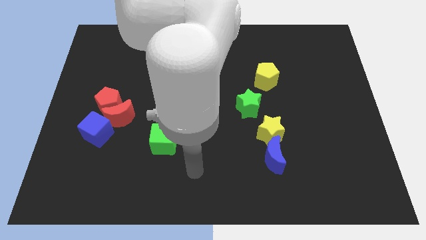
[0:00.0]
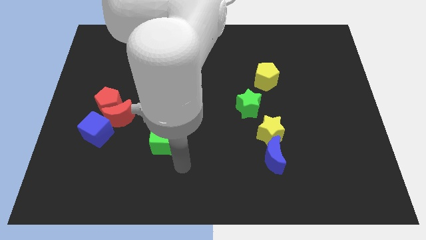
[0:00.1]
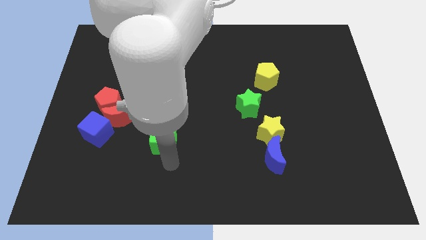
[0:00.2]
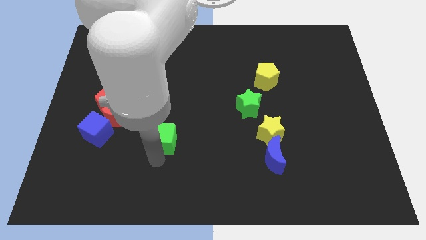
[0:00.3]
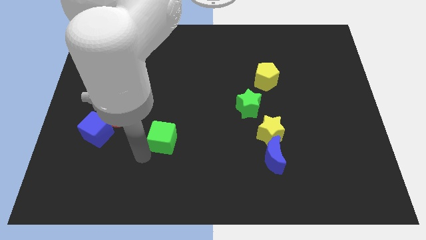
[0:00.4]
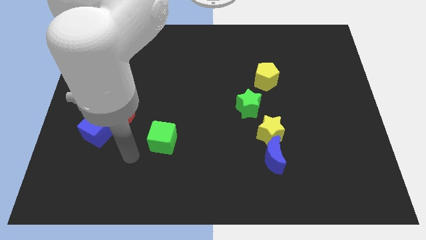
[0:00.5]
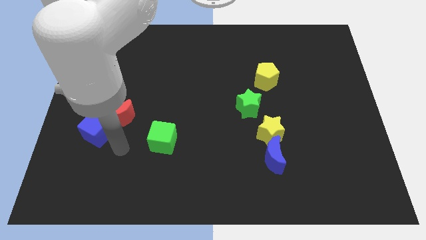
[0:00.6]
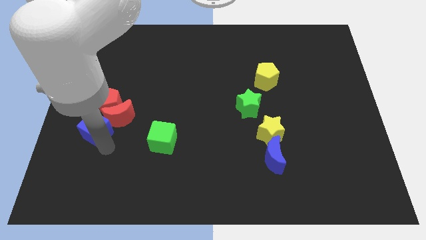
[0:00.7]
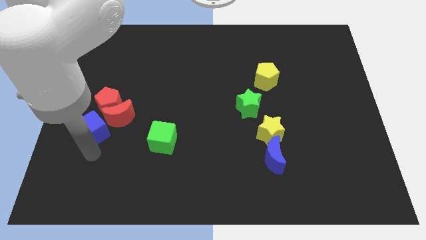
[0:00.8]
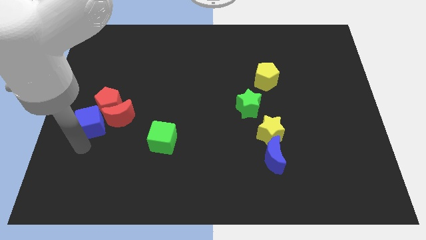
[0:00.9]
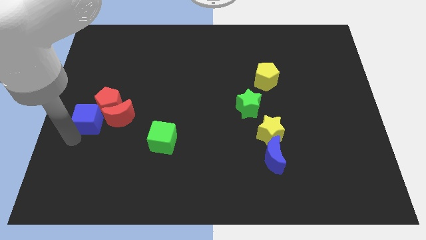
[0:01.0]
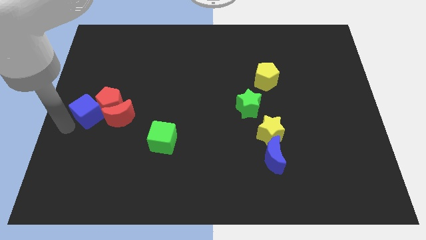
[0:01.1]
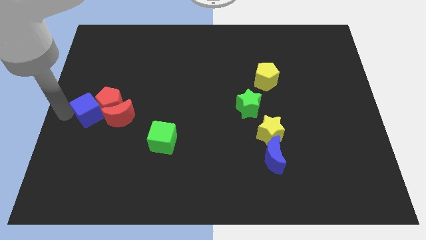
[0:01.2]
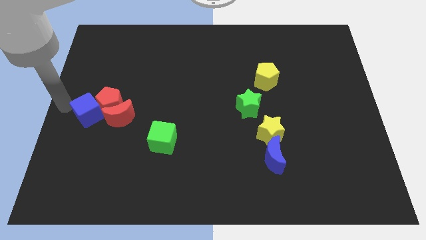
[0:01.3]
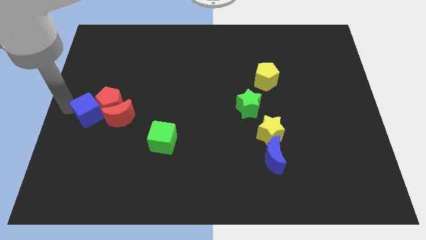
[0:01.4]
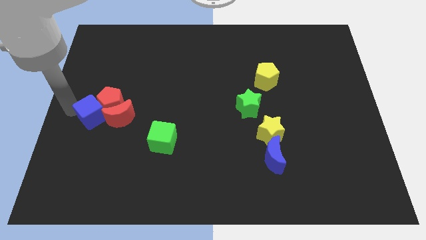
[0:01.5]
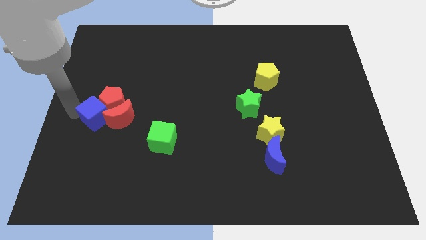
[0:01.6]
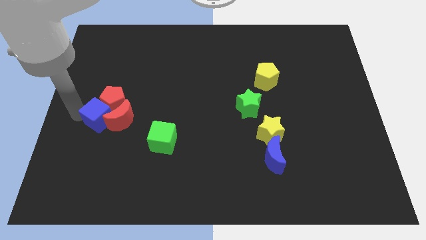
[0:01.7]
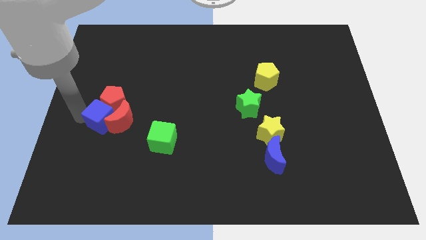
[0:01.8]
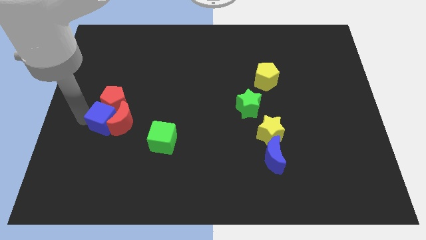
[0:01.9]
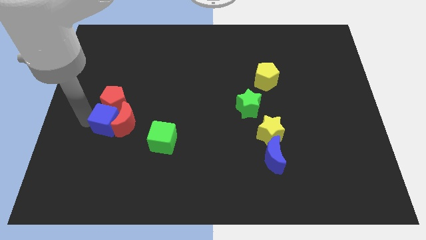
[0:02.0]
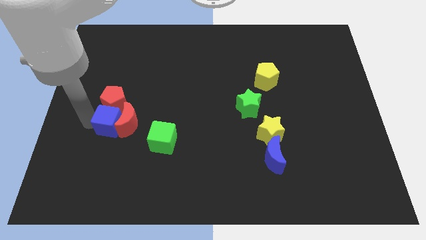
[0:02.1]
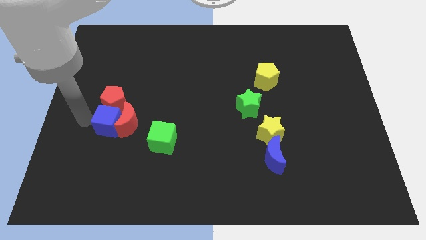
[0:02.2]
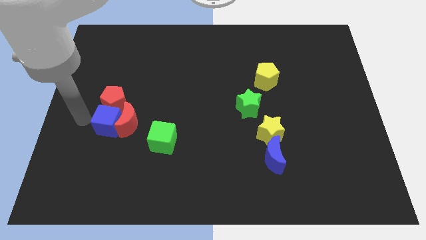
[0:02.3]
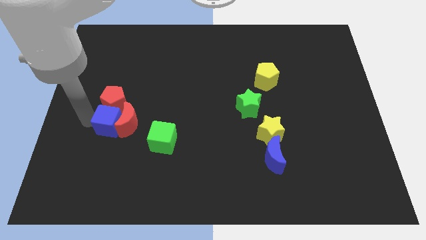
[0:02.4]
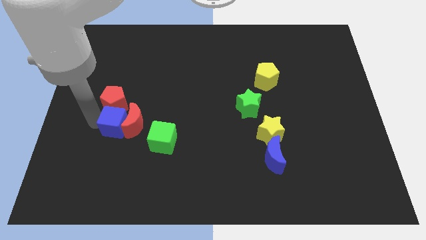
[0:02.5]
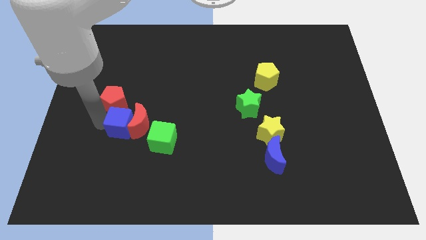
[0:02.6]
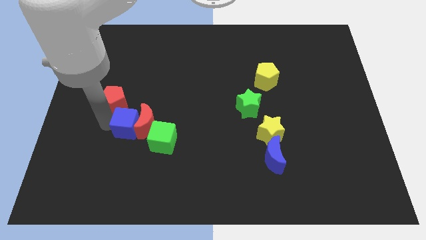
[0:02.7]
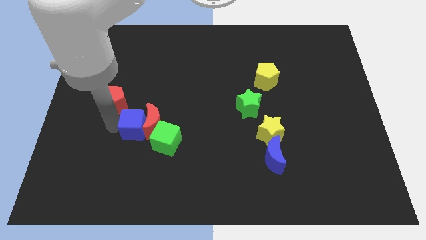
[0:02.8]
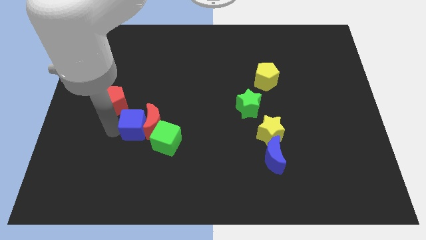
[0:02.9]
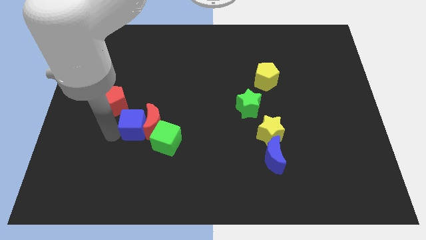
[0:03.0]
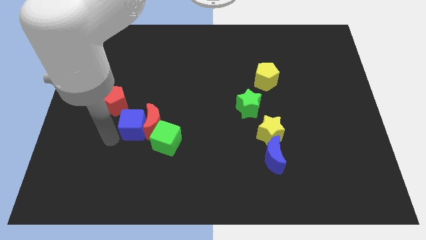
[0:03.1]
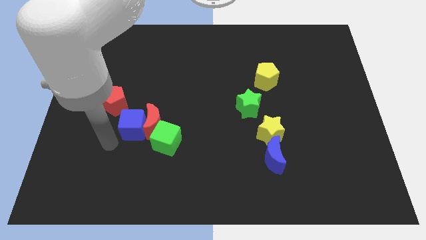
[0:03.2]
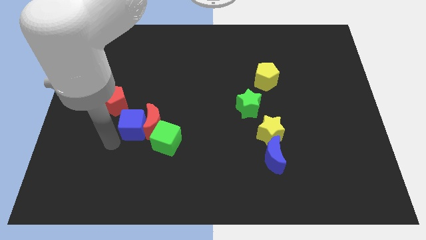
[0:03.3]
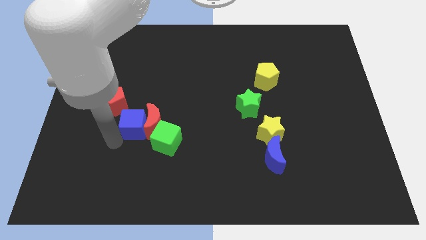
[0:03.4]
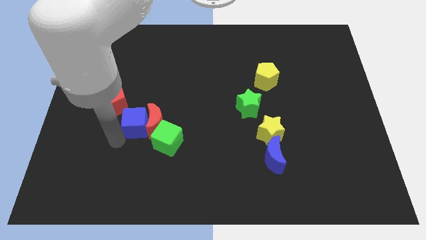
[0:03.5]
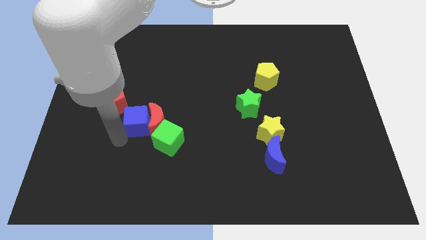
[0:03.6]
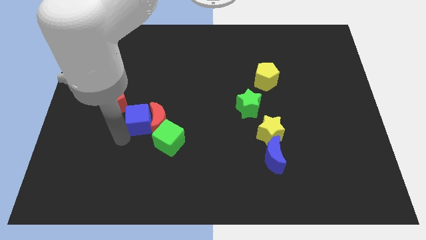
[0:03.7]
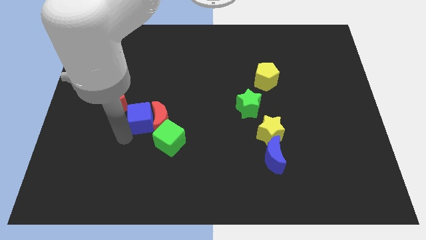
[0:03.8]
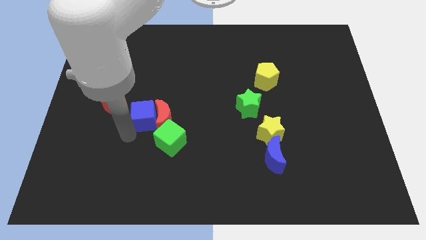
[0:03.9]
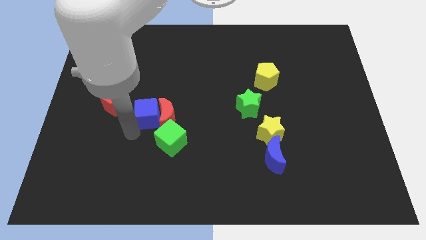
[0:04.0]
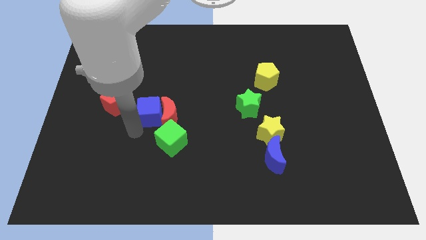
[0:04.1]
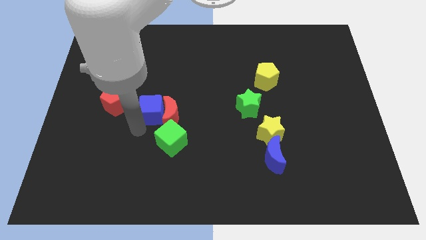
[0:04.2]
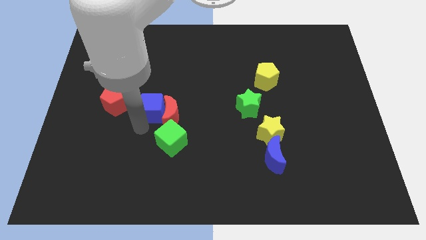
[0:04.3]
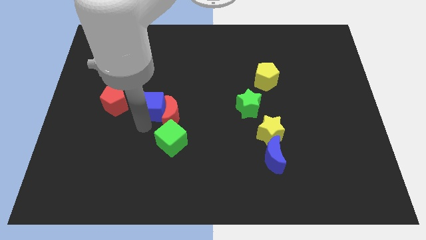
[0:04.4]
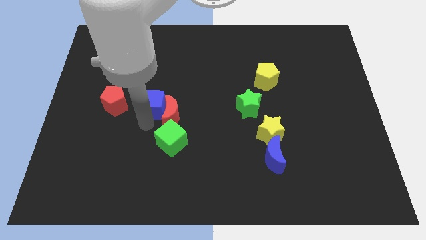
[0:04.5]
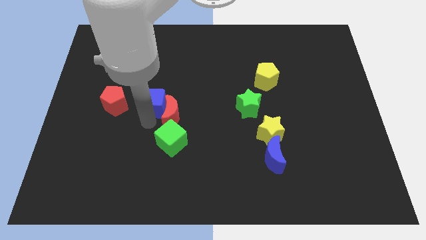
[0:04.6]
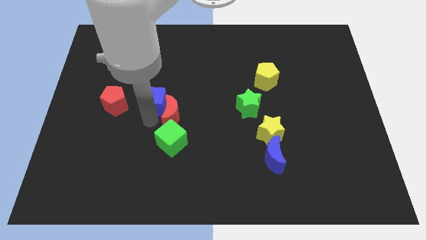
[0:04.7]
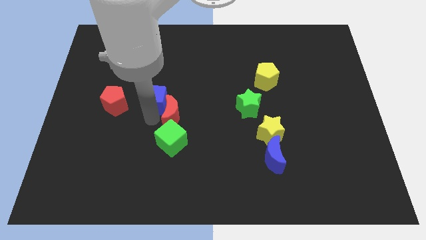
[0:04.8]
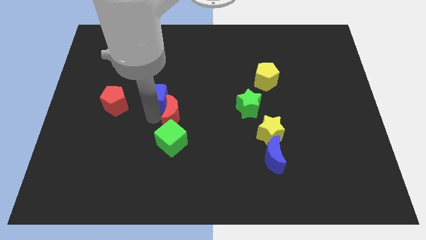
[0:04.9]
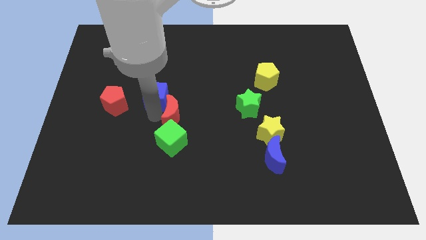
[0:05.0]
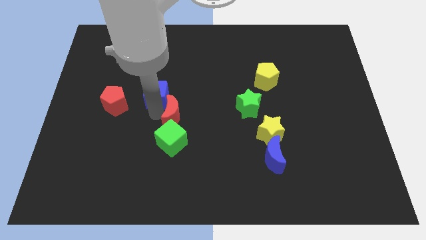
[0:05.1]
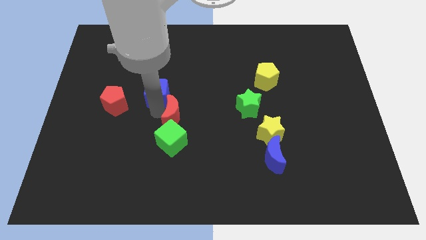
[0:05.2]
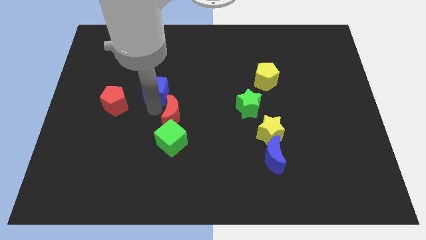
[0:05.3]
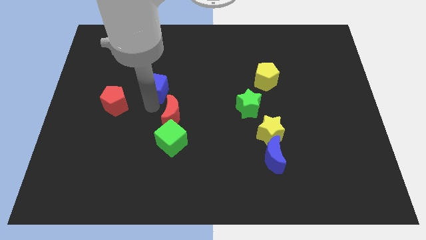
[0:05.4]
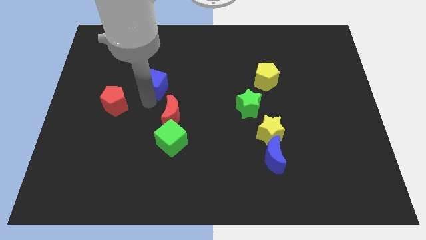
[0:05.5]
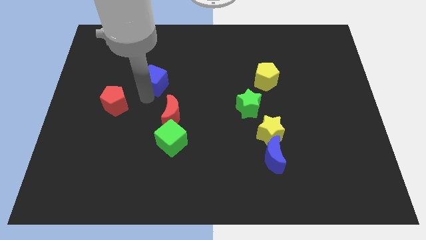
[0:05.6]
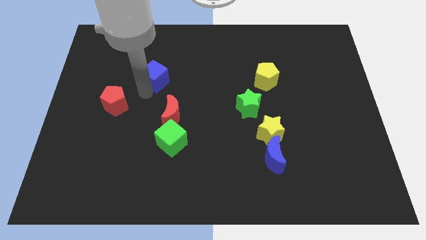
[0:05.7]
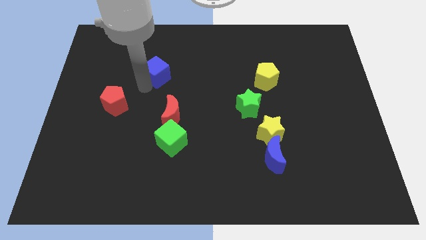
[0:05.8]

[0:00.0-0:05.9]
push the blue cube upwards and to the right diagonally

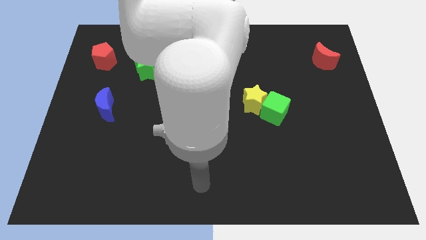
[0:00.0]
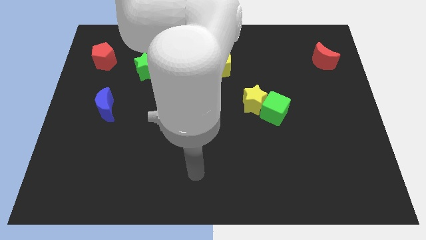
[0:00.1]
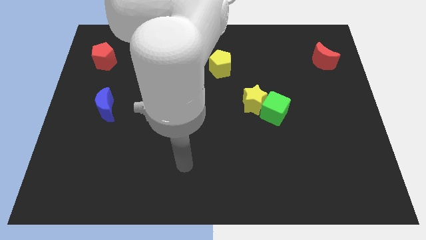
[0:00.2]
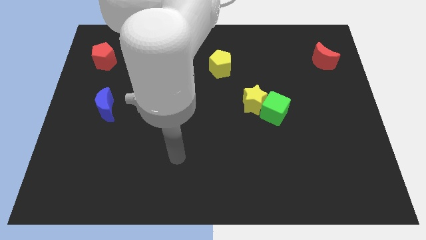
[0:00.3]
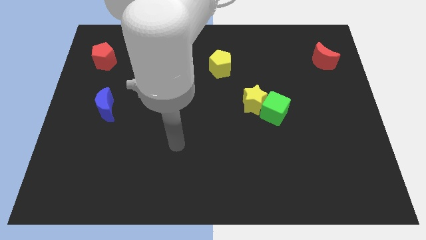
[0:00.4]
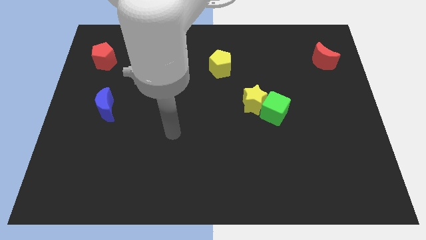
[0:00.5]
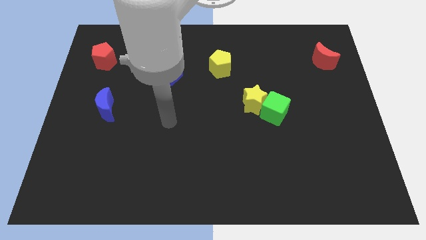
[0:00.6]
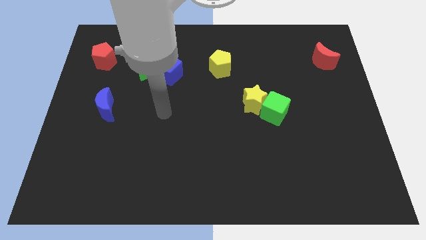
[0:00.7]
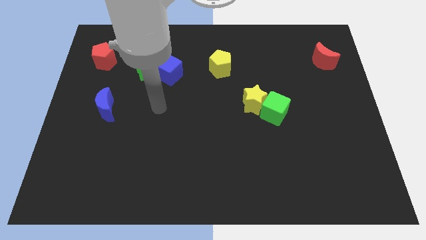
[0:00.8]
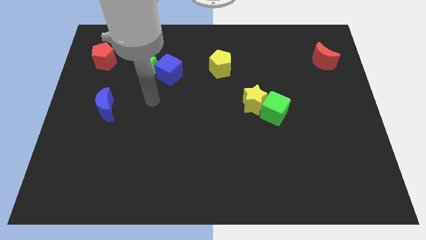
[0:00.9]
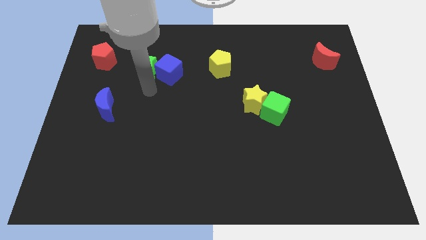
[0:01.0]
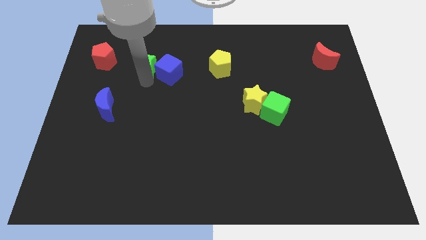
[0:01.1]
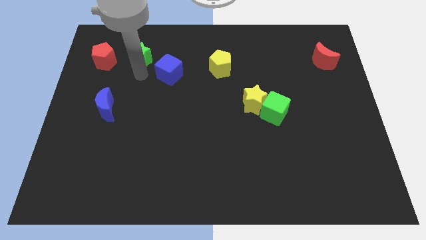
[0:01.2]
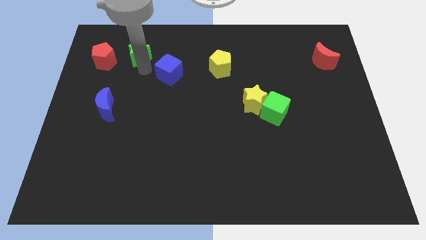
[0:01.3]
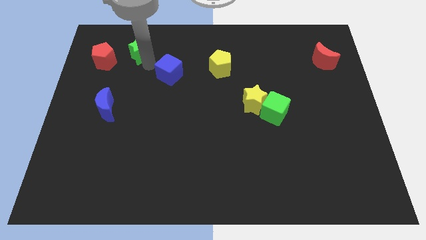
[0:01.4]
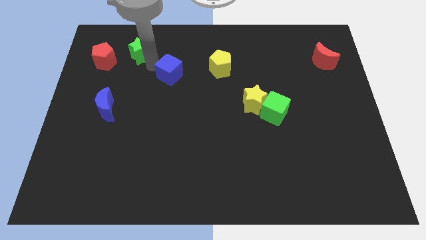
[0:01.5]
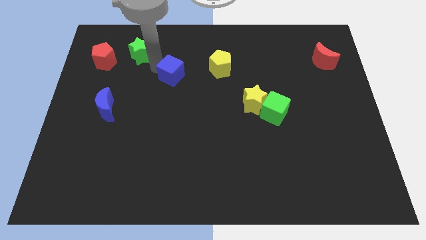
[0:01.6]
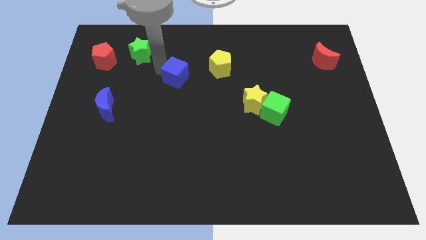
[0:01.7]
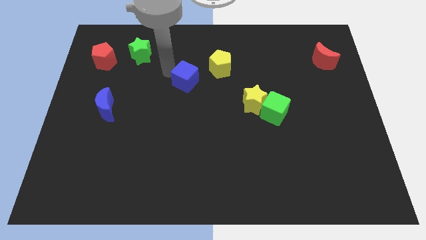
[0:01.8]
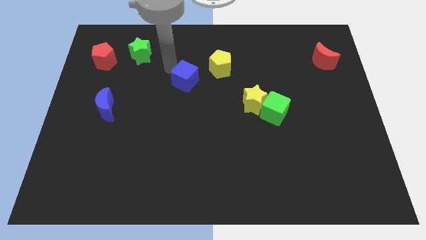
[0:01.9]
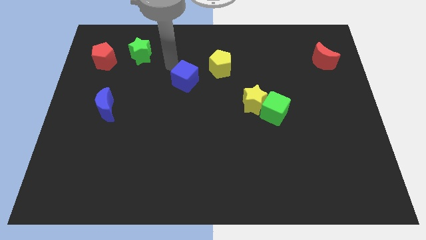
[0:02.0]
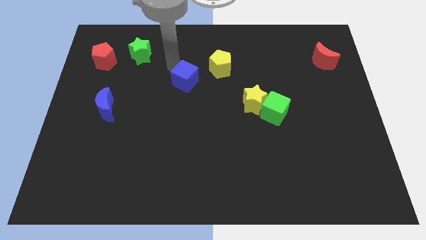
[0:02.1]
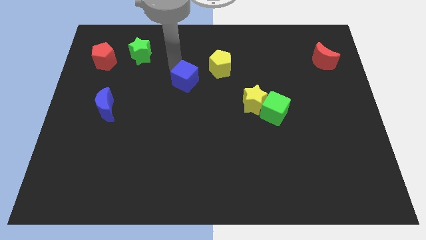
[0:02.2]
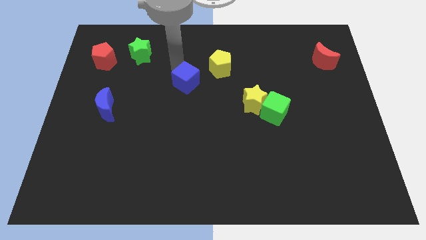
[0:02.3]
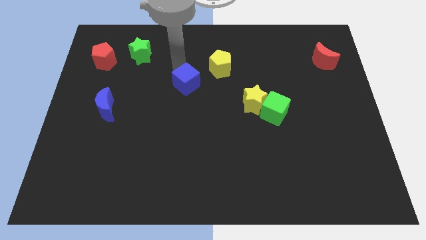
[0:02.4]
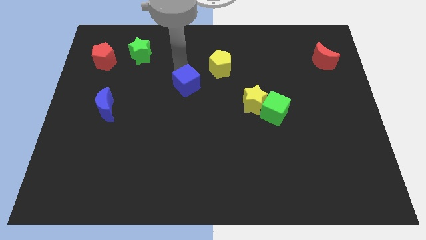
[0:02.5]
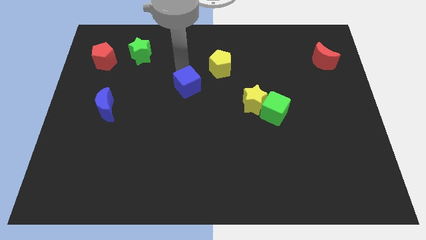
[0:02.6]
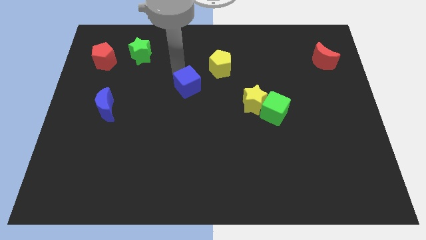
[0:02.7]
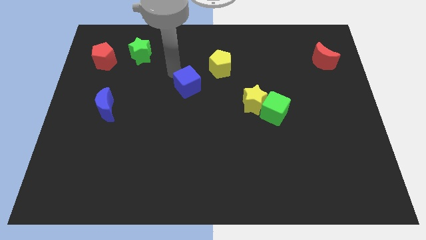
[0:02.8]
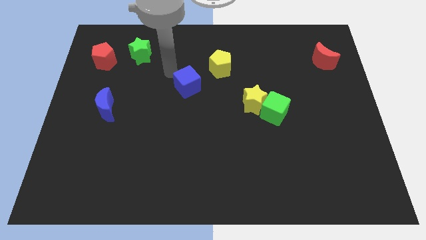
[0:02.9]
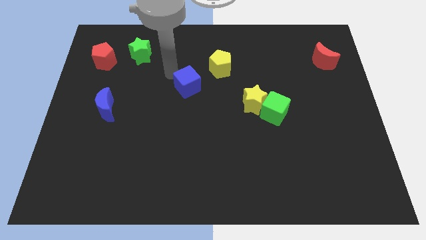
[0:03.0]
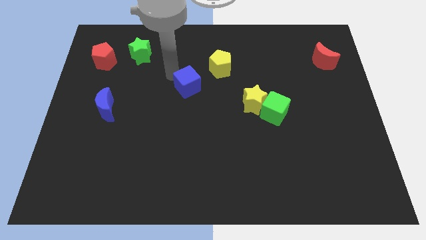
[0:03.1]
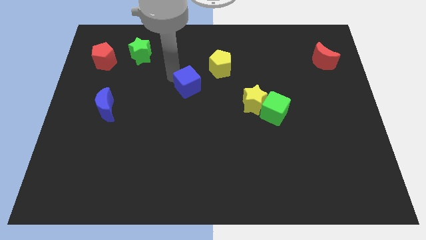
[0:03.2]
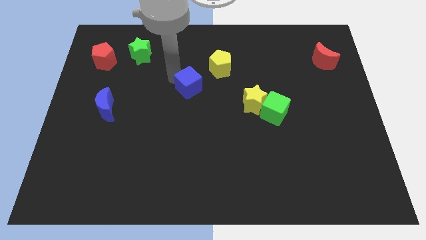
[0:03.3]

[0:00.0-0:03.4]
move the blue cube down and to the right somewhat
